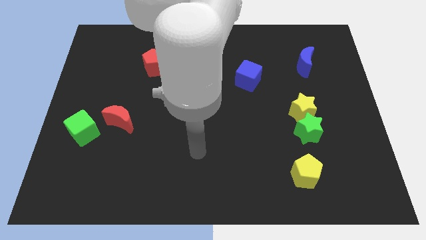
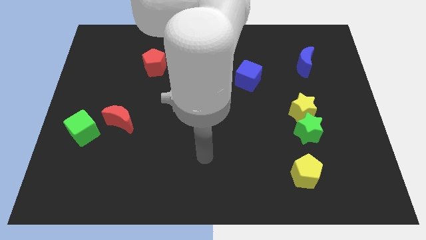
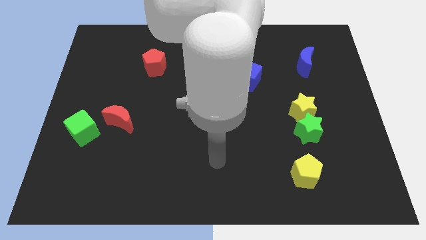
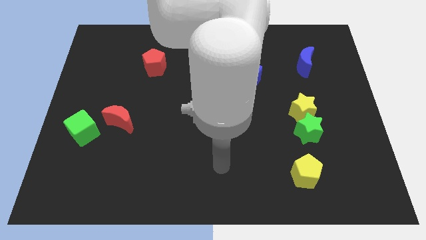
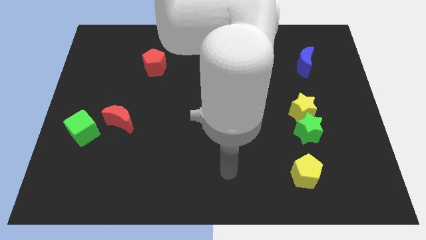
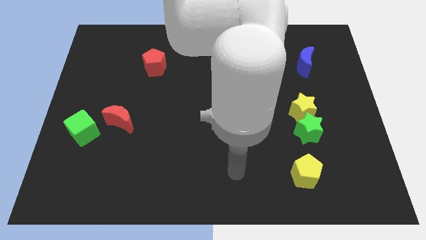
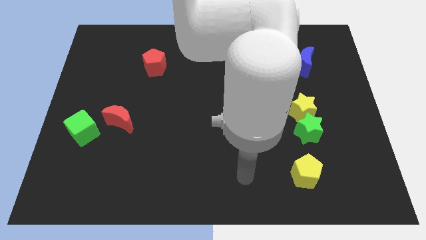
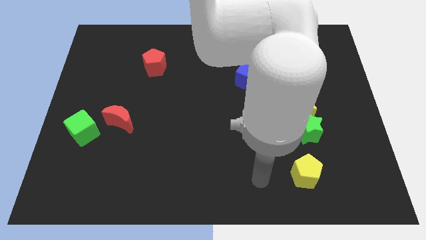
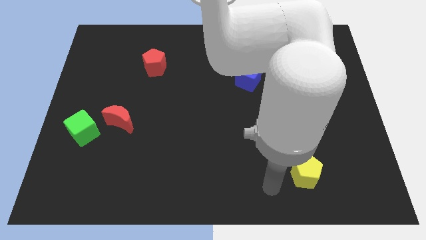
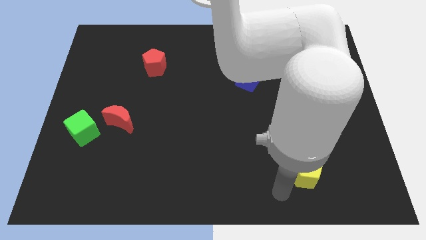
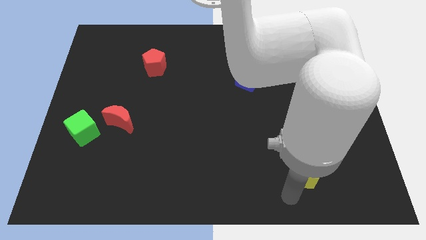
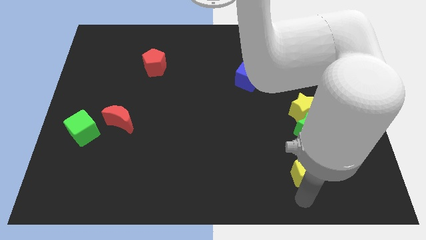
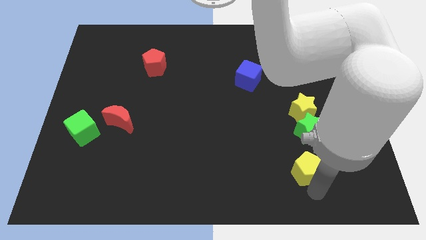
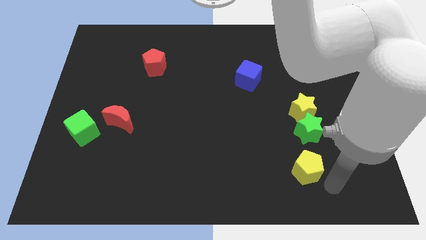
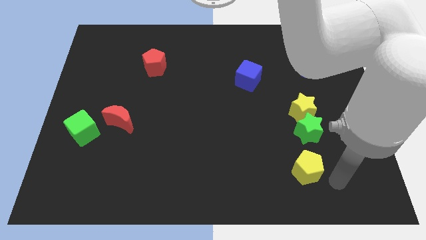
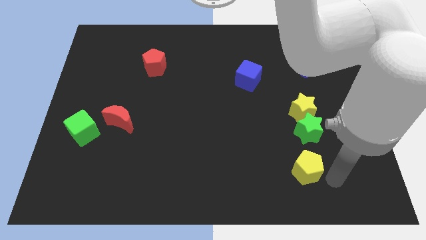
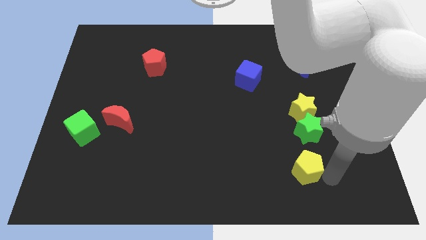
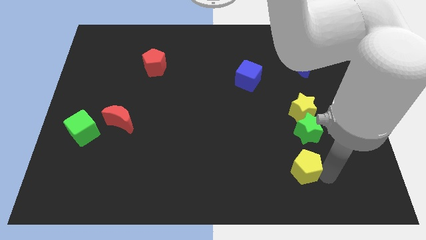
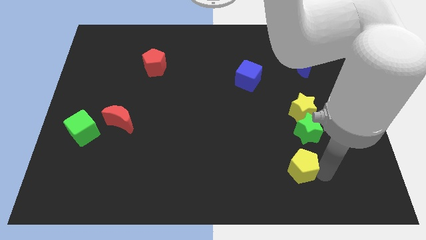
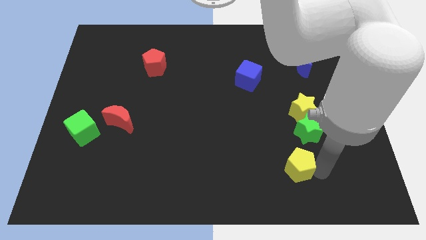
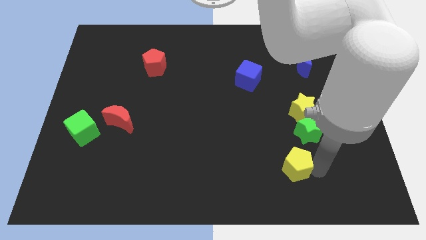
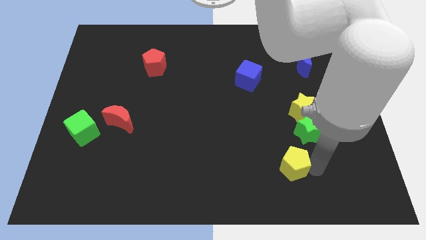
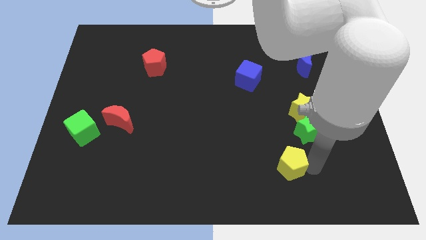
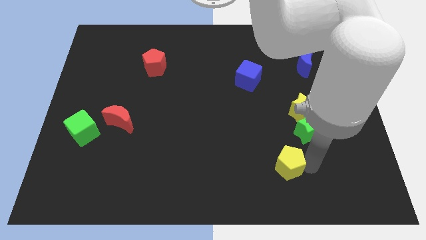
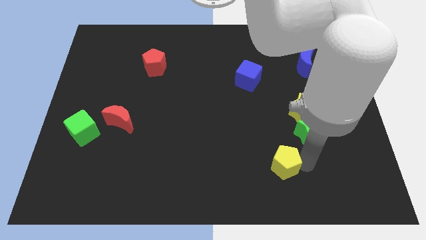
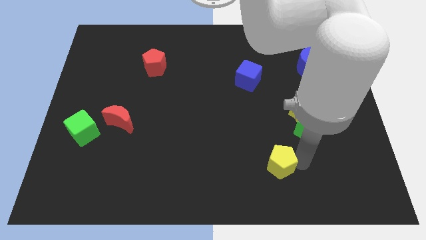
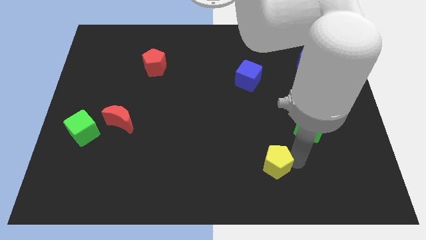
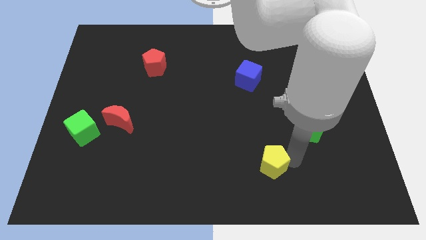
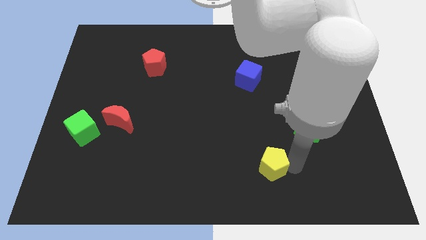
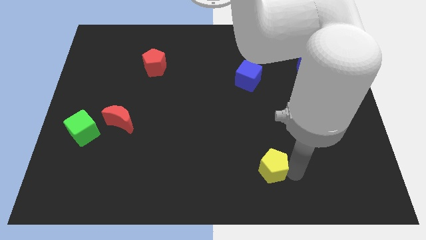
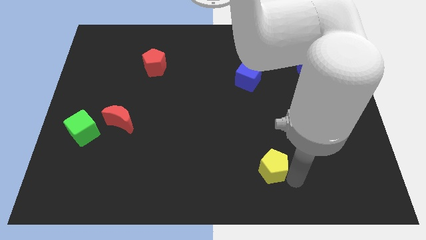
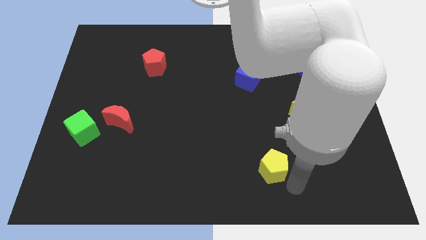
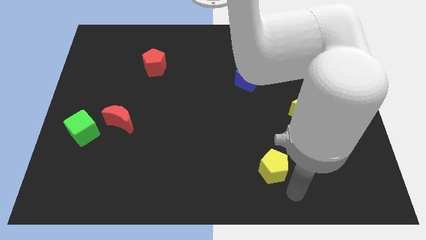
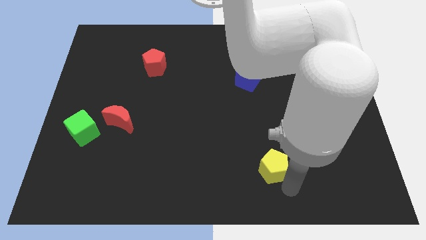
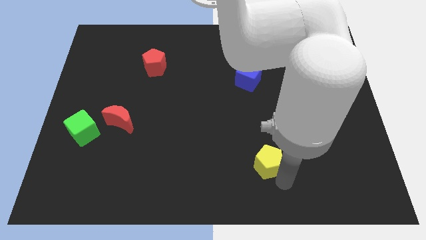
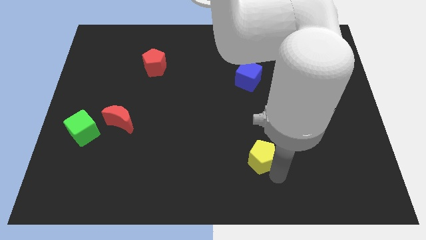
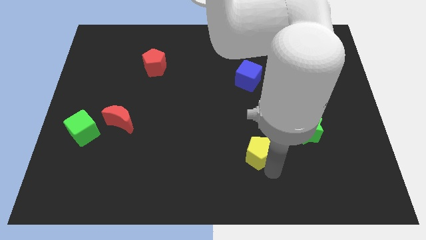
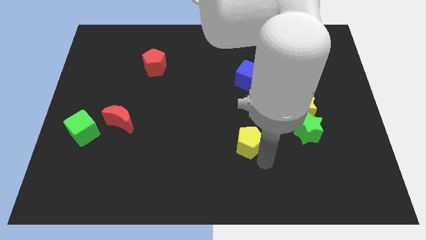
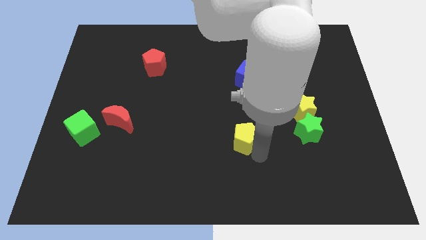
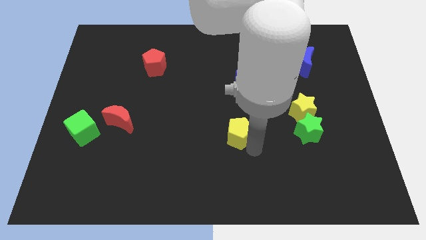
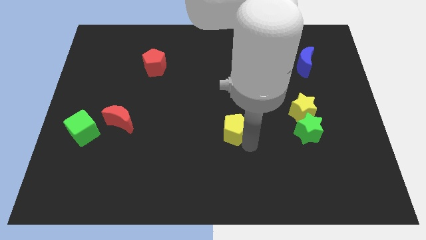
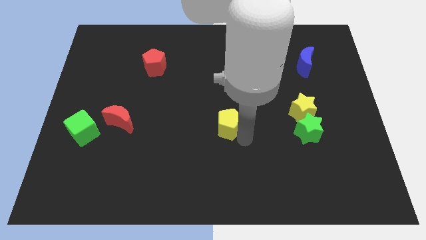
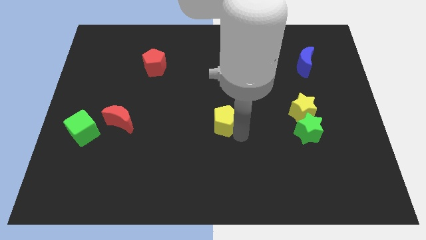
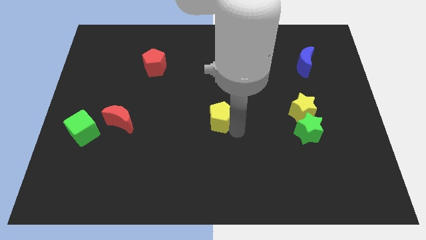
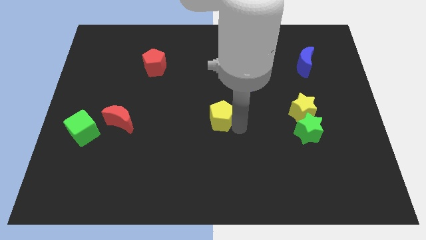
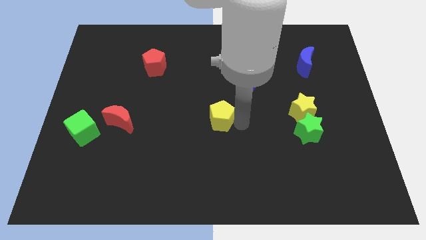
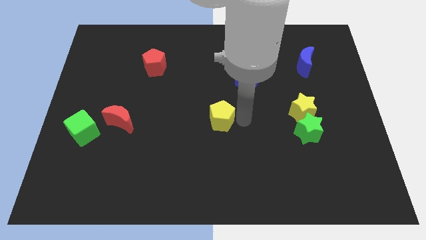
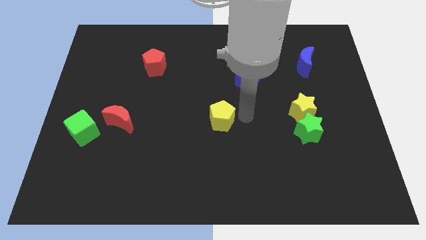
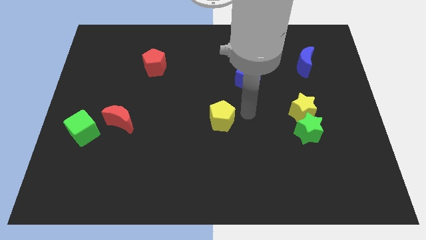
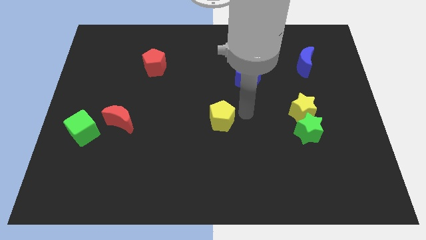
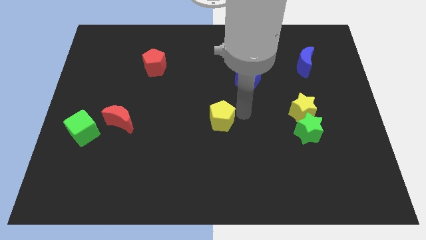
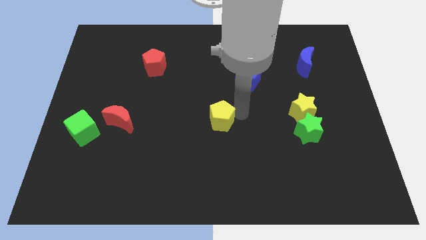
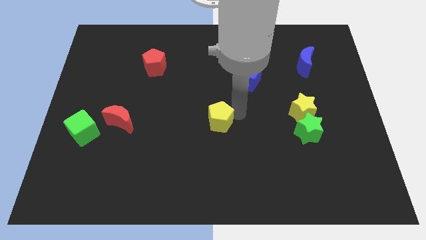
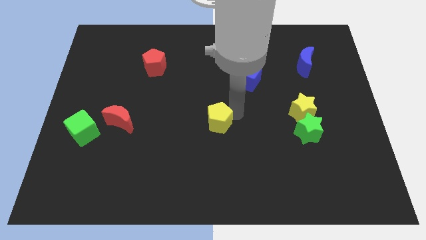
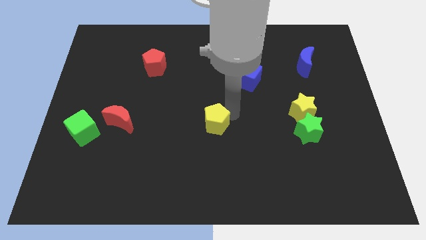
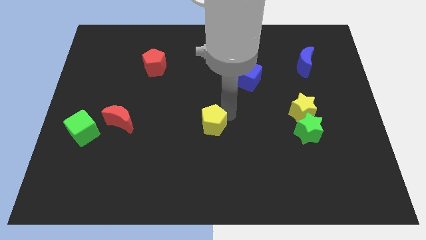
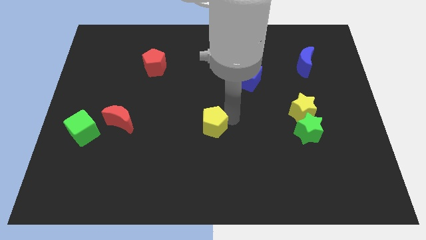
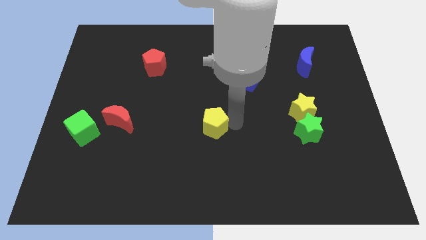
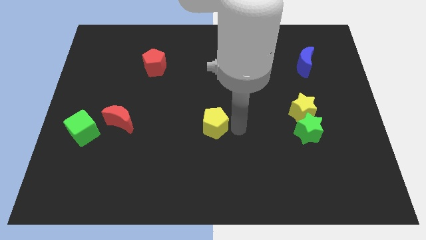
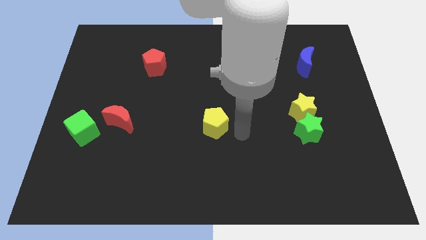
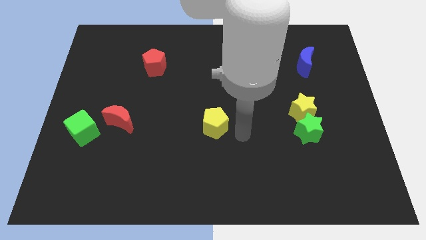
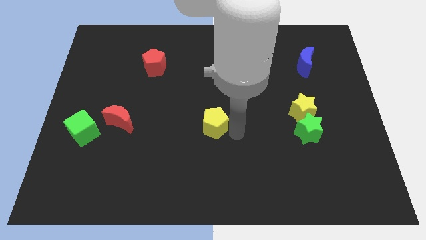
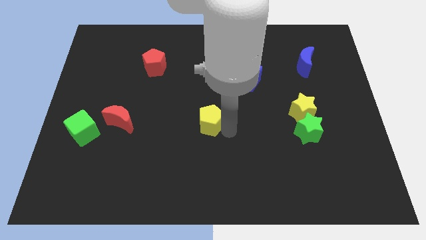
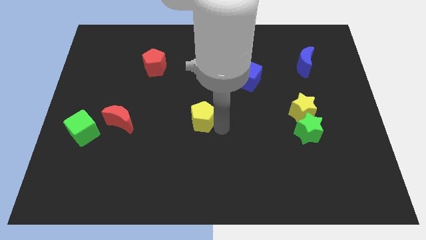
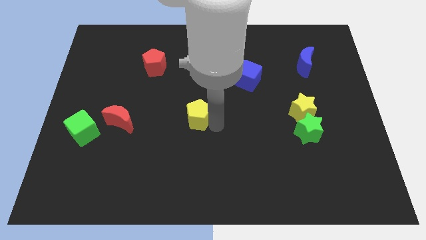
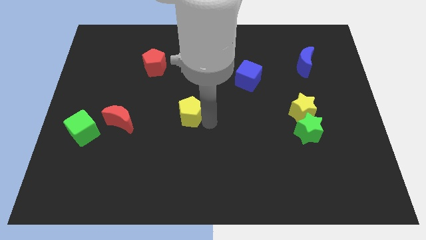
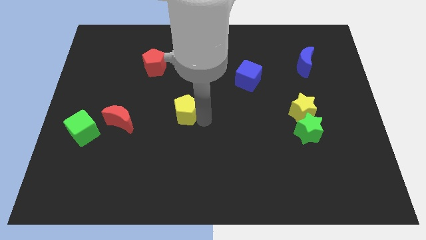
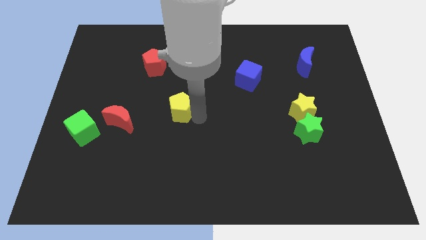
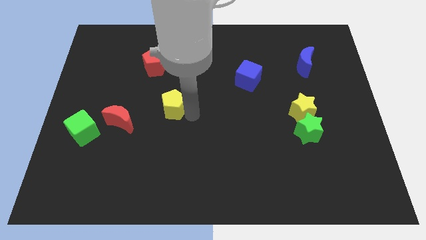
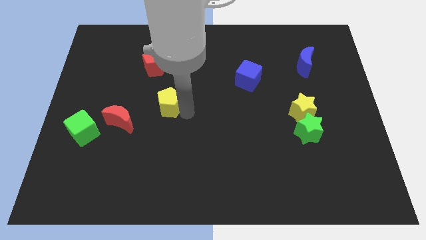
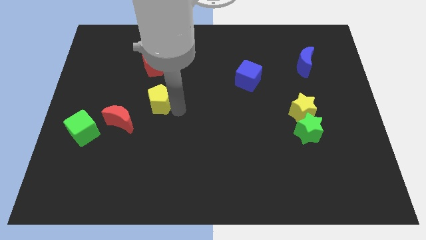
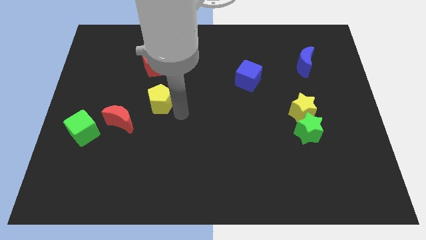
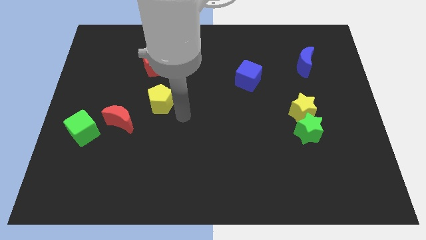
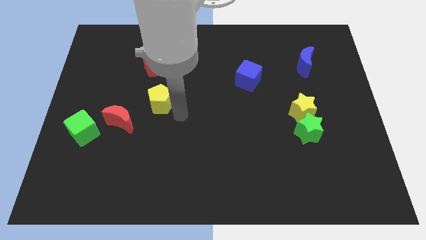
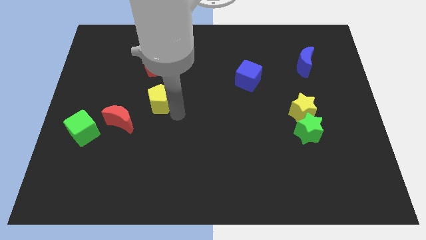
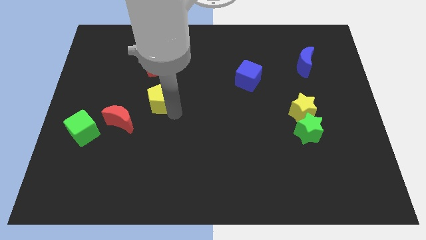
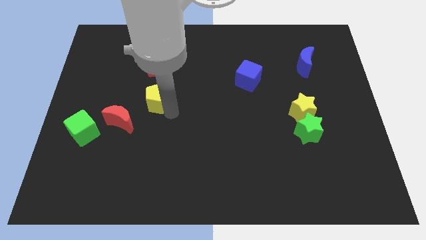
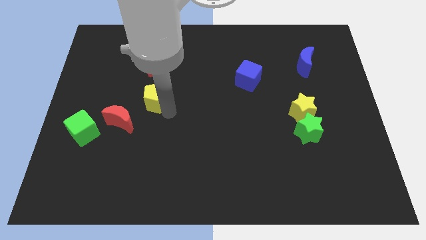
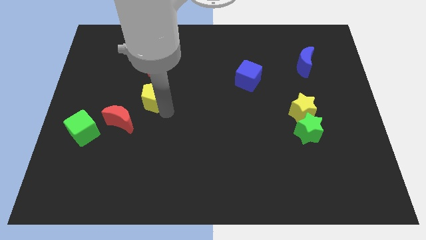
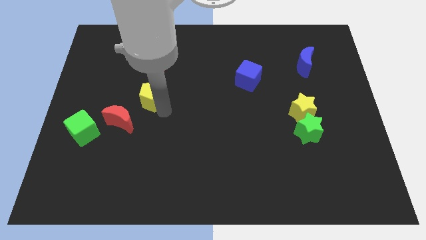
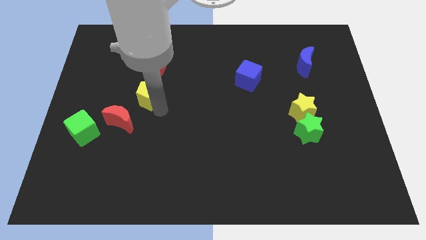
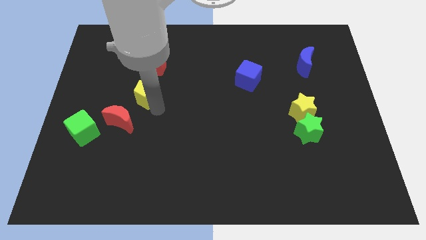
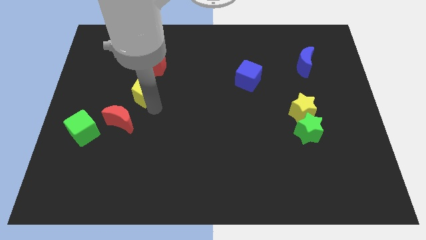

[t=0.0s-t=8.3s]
put the yellow pentagon to the top side of the red moon
